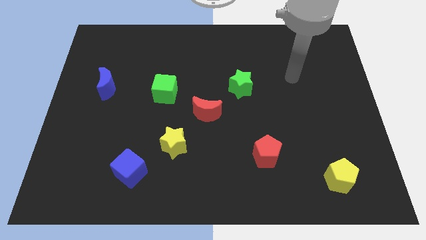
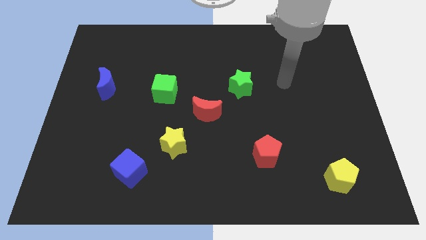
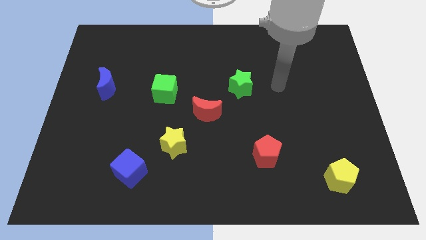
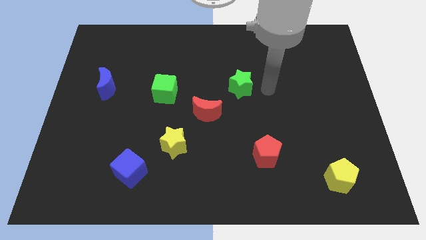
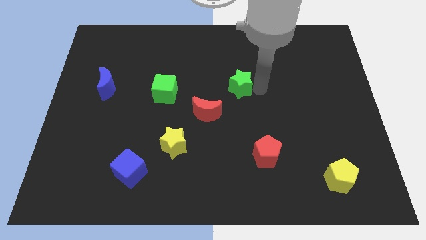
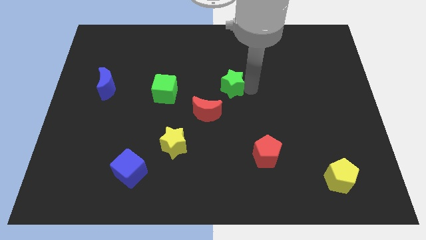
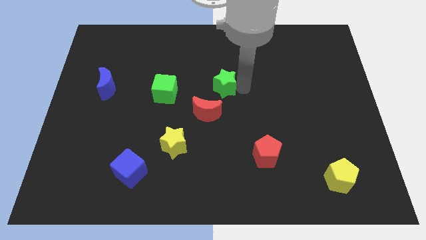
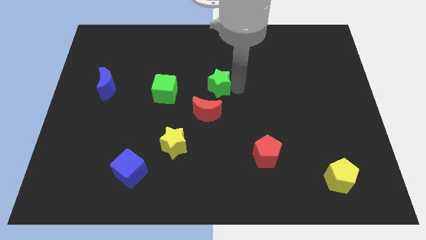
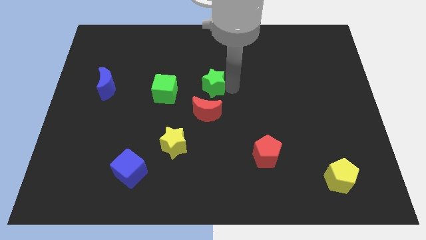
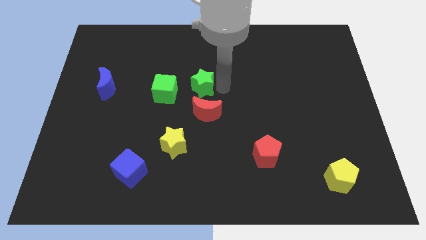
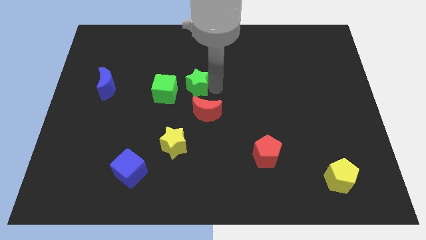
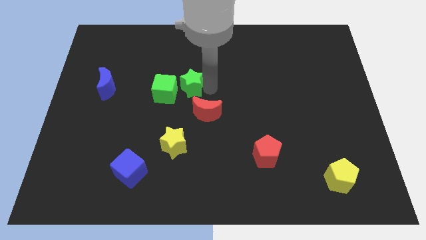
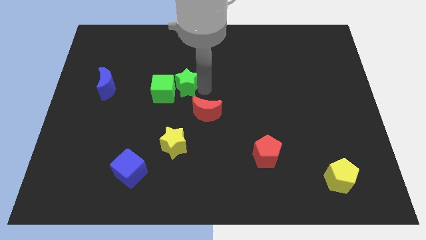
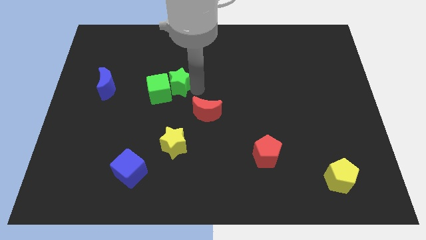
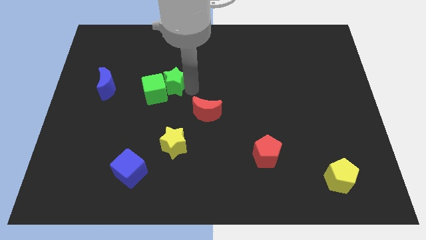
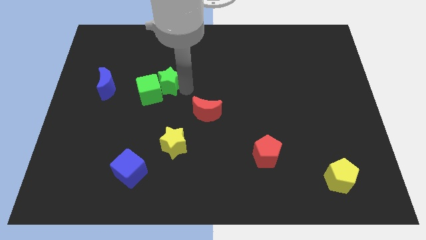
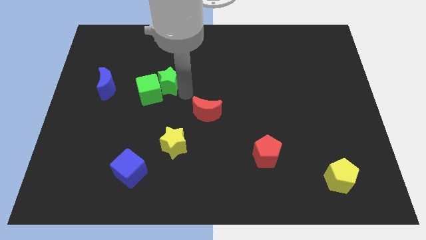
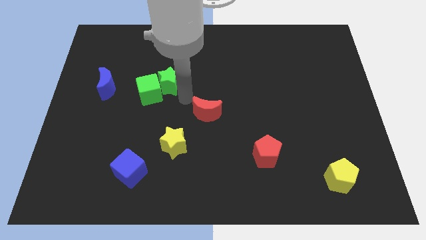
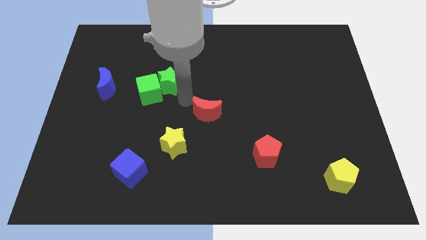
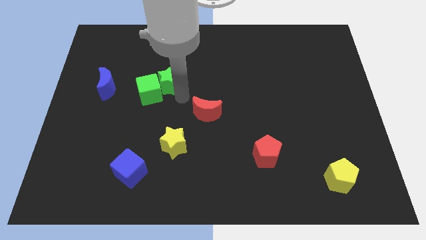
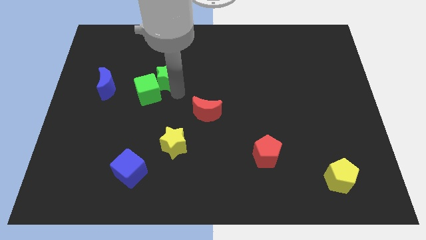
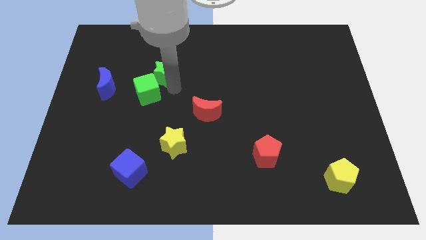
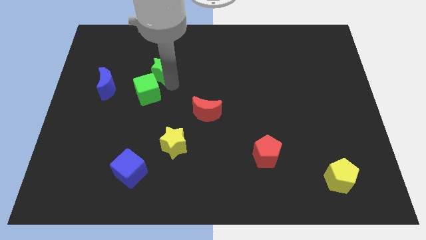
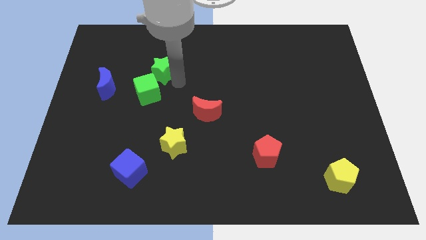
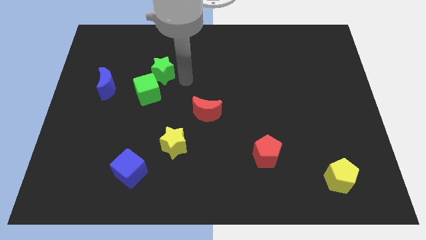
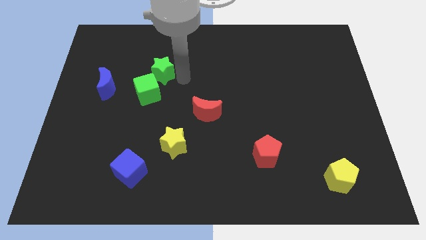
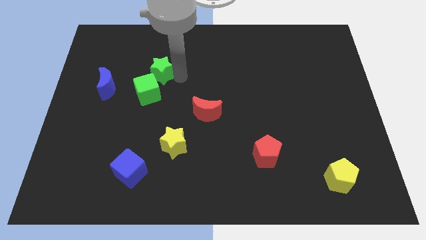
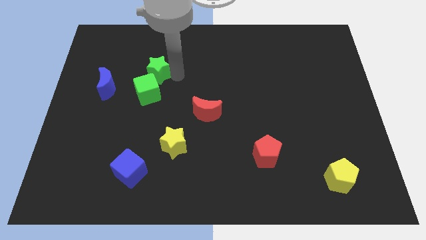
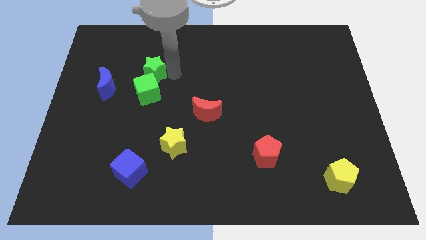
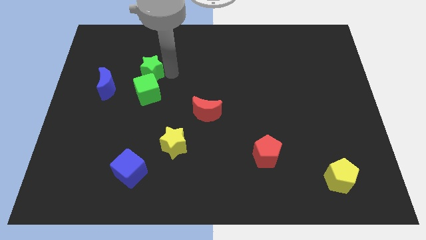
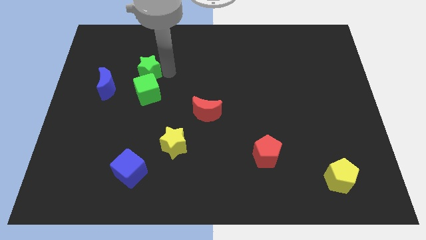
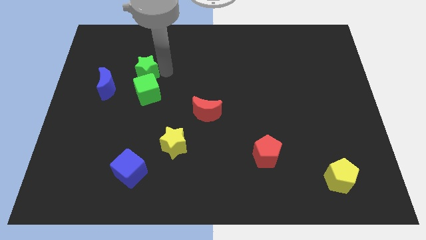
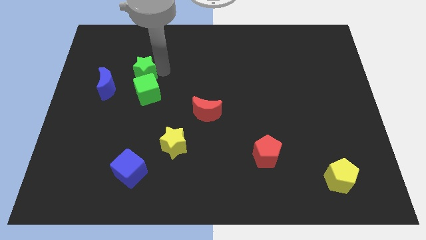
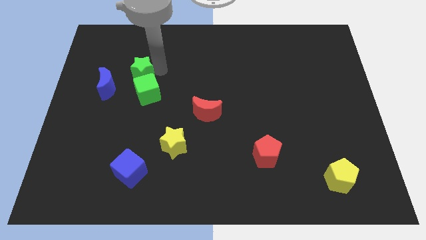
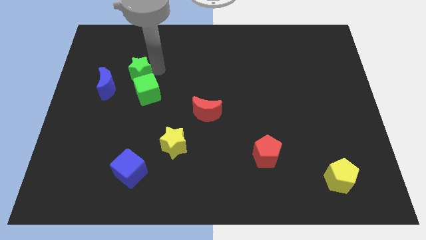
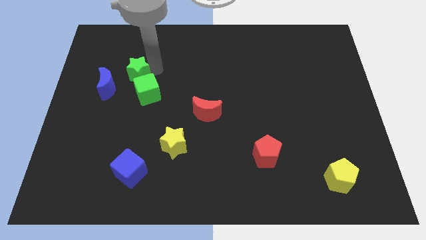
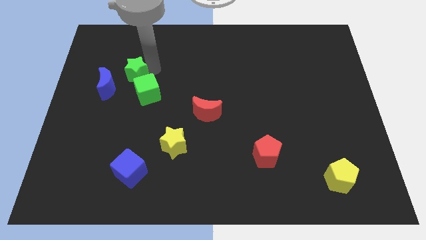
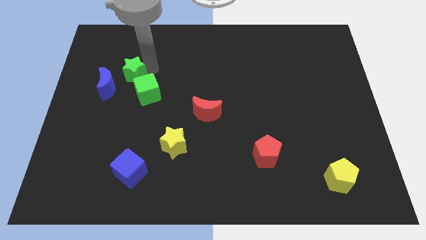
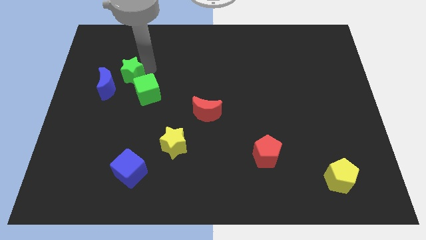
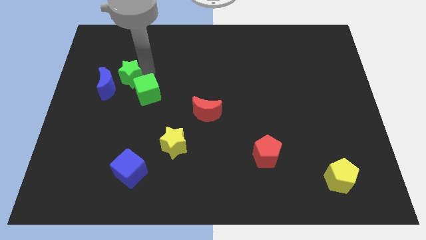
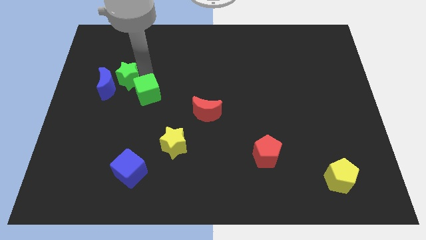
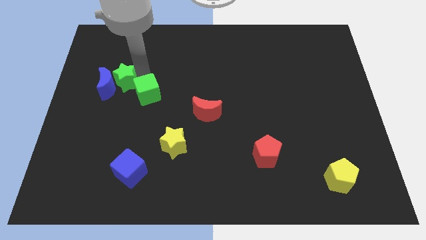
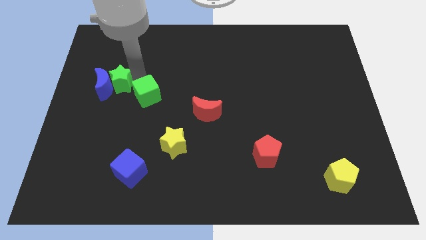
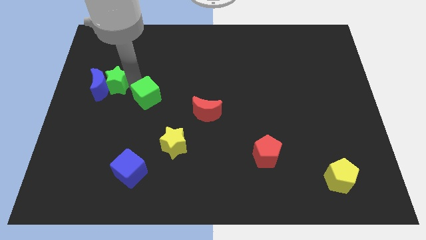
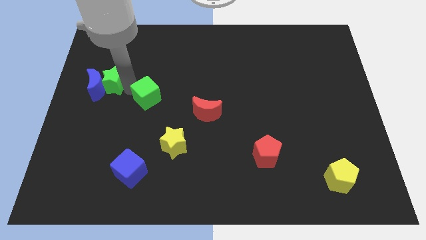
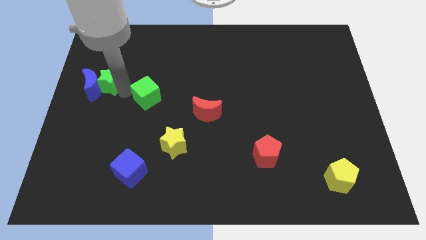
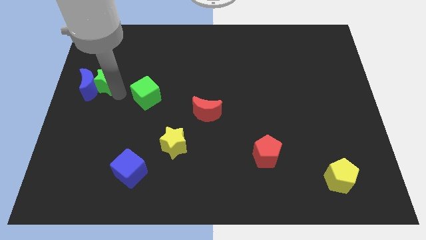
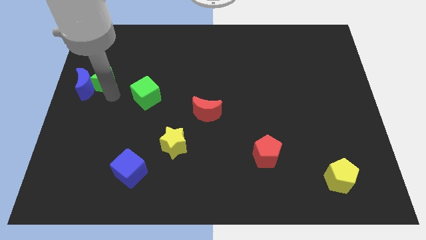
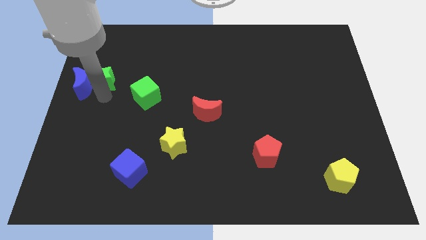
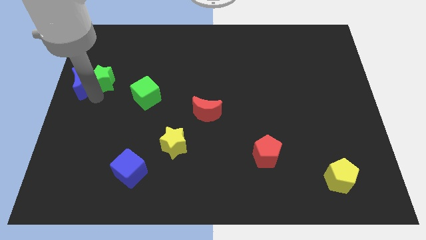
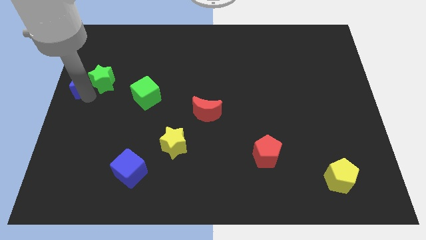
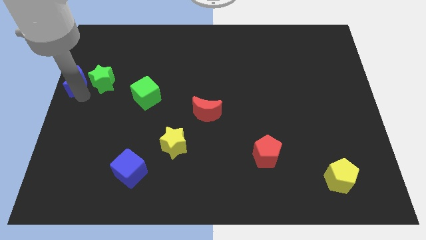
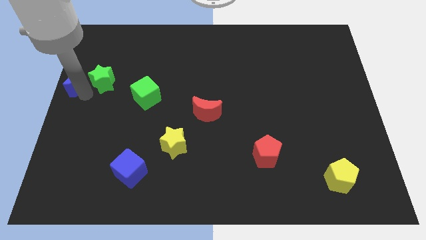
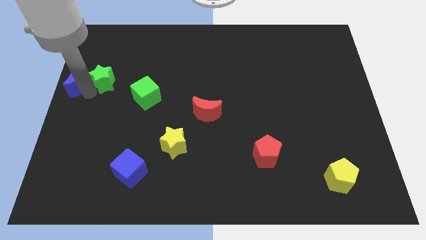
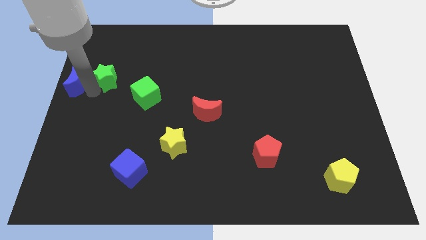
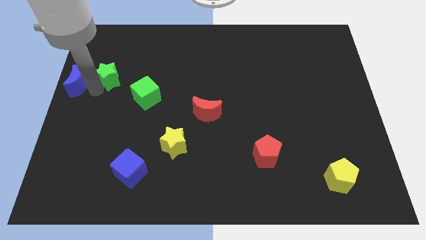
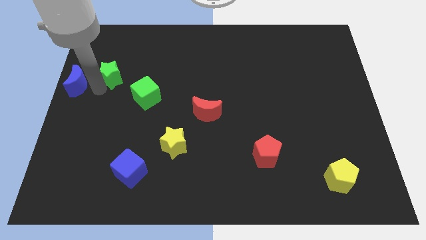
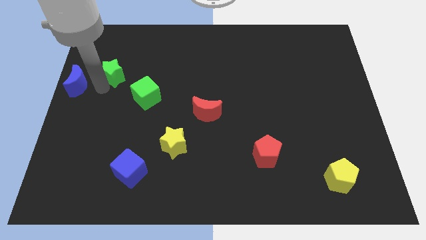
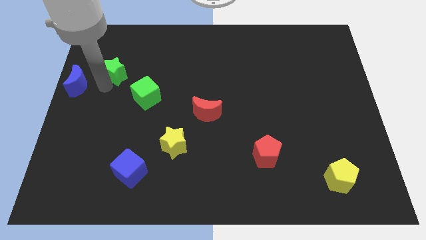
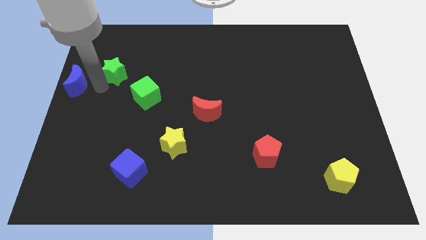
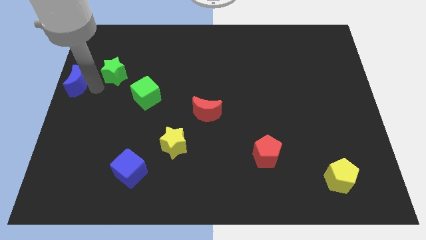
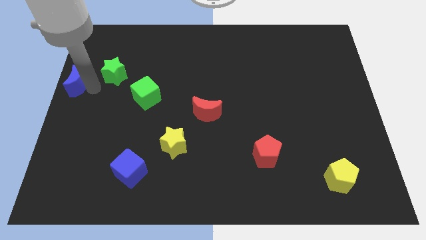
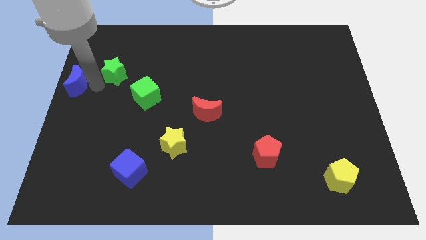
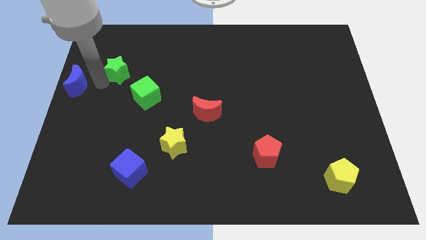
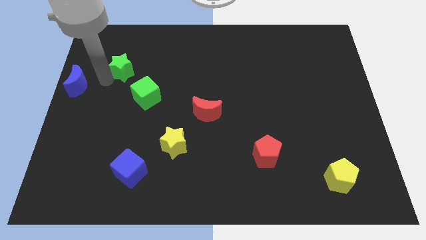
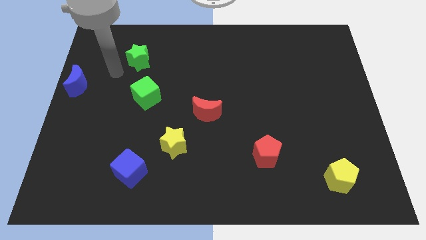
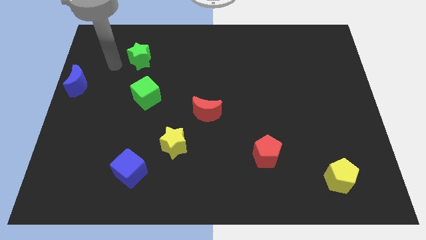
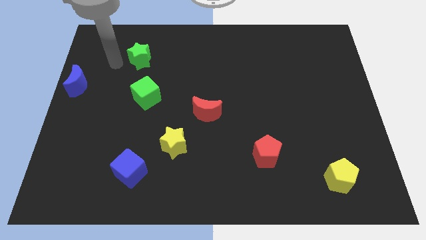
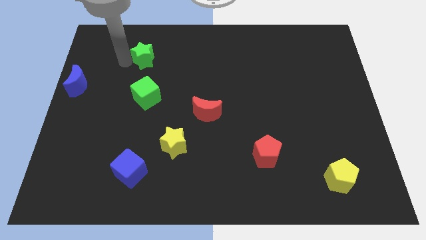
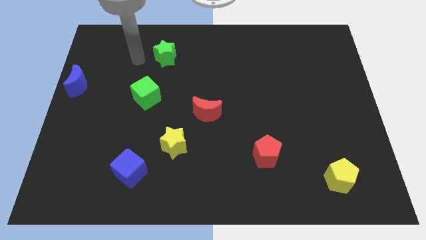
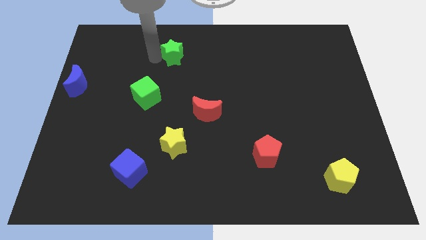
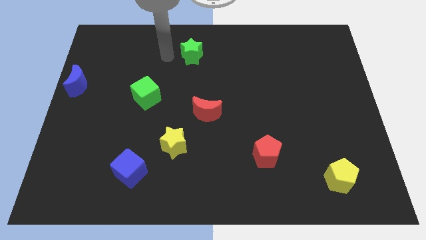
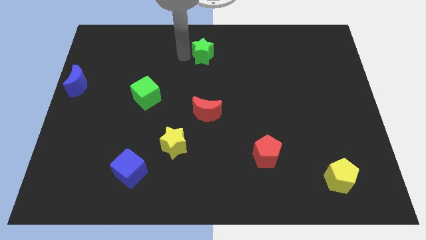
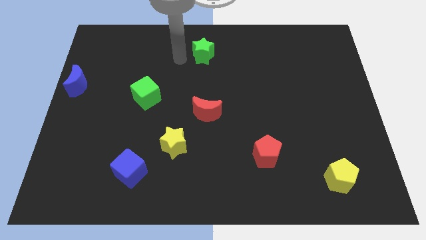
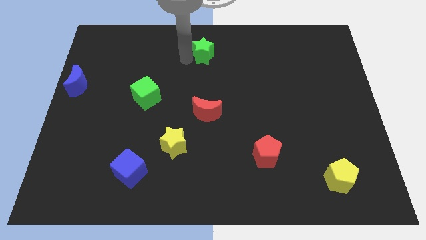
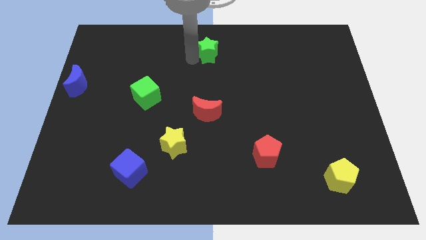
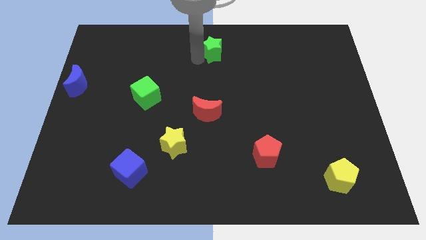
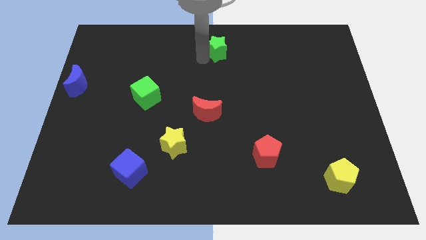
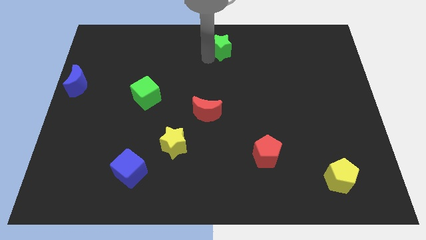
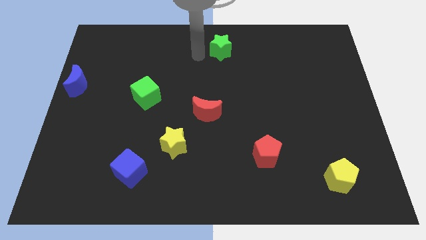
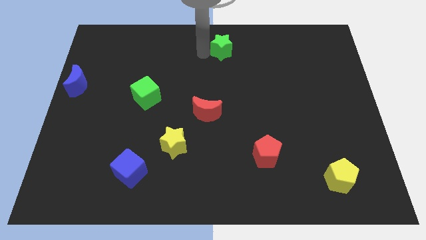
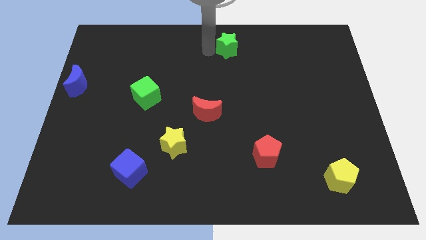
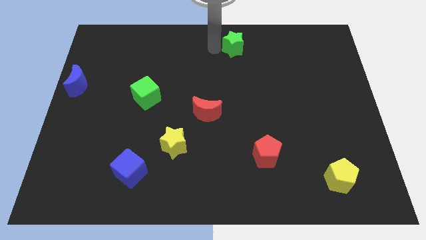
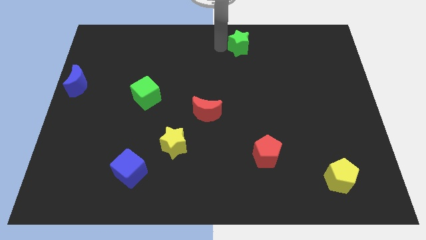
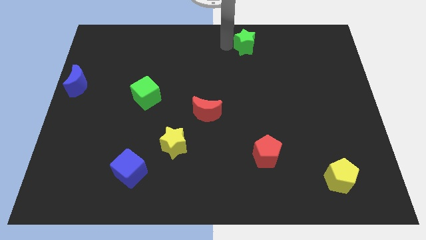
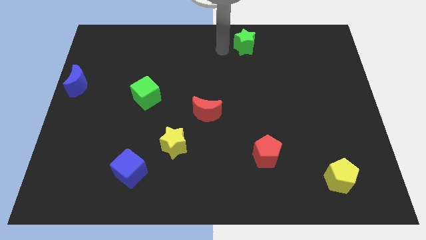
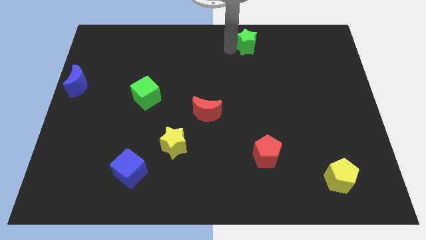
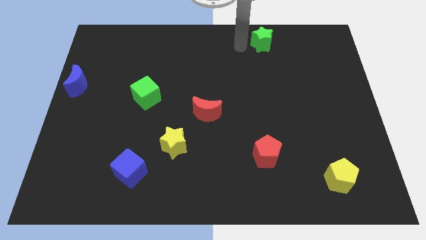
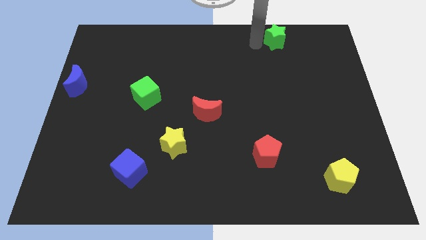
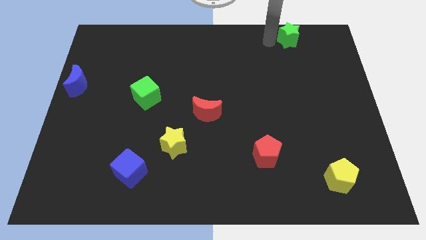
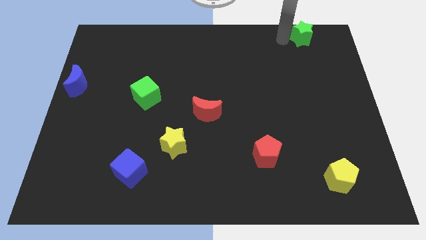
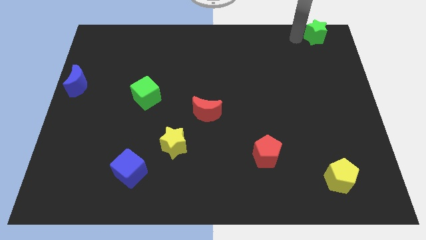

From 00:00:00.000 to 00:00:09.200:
put the green star to the top right
